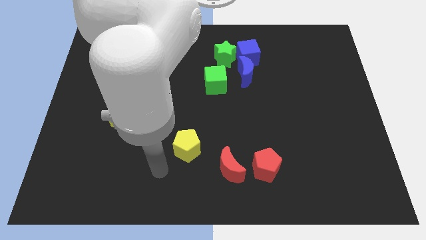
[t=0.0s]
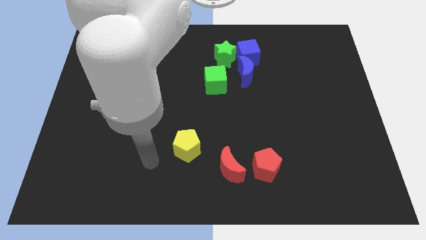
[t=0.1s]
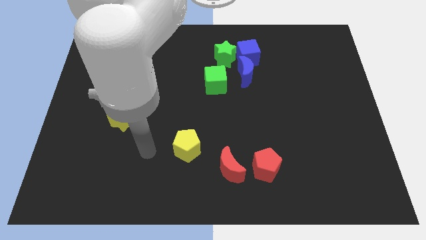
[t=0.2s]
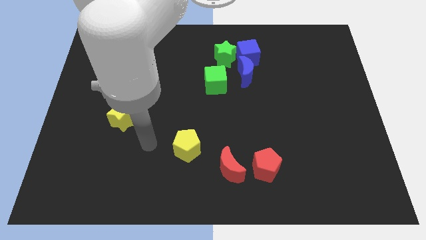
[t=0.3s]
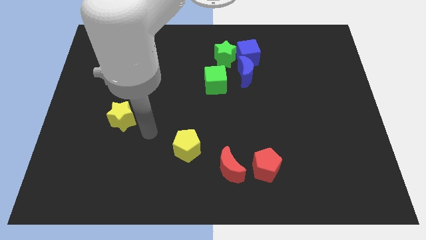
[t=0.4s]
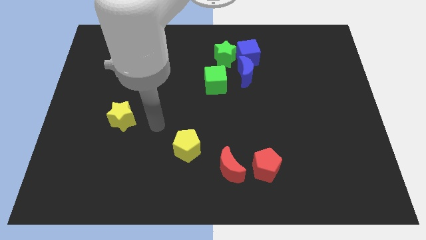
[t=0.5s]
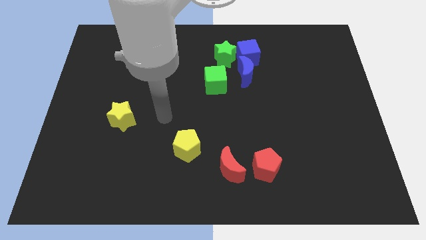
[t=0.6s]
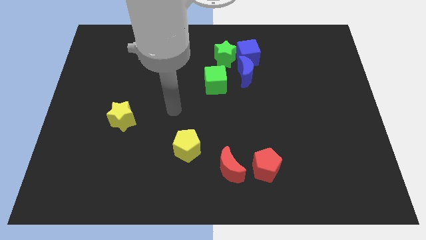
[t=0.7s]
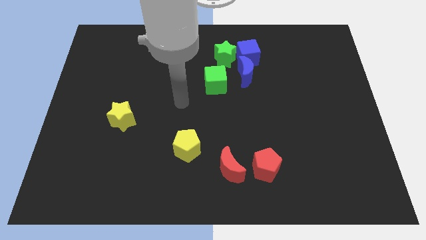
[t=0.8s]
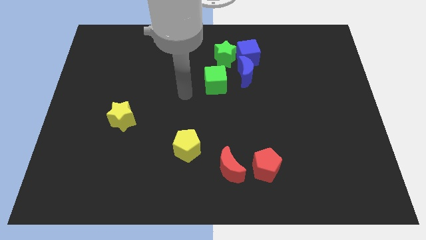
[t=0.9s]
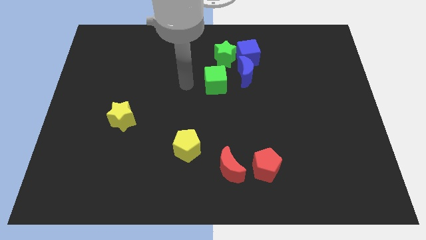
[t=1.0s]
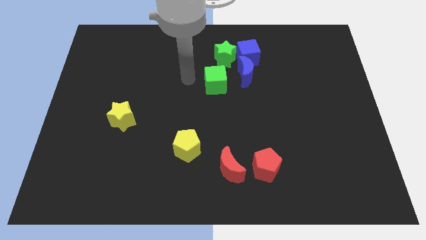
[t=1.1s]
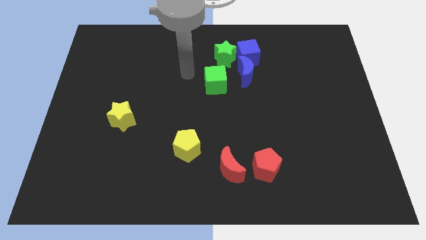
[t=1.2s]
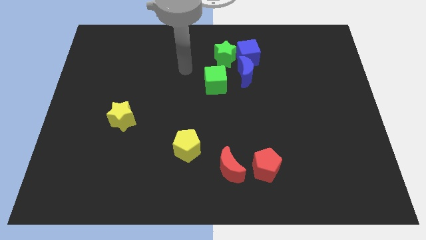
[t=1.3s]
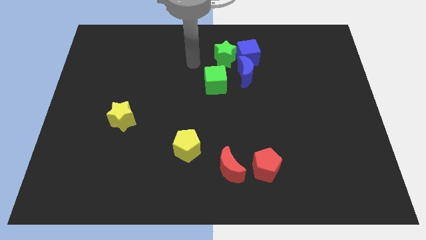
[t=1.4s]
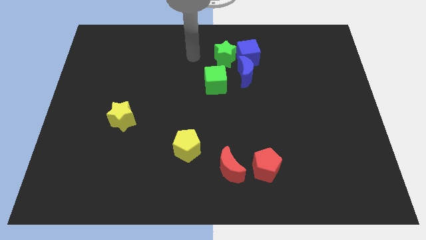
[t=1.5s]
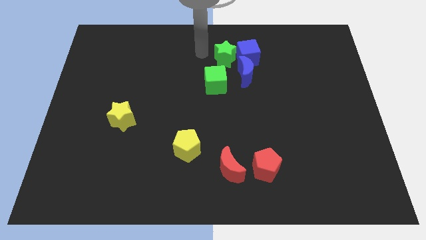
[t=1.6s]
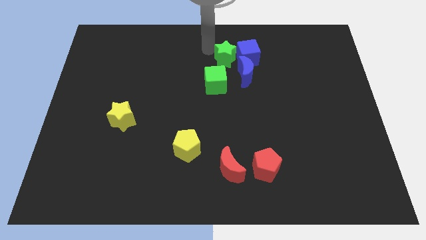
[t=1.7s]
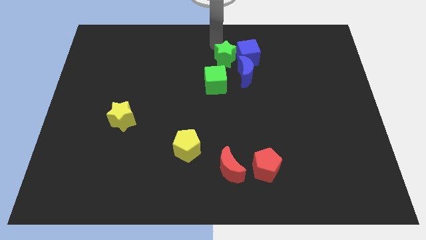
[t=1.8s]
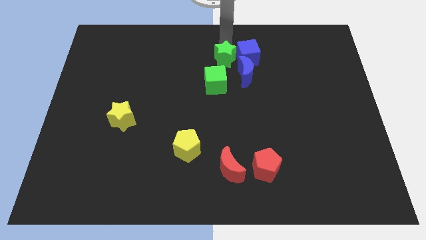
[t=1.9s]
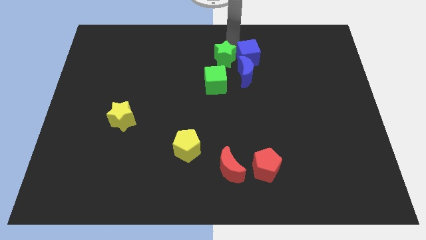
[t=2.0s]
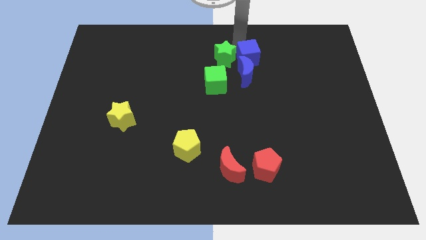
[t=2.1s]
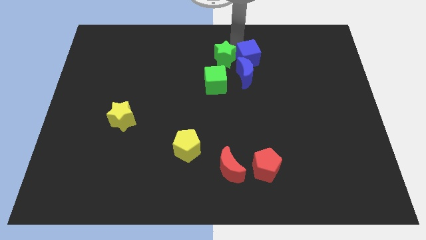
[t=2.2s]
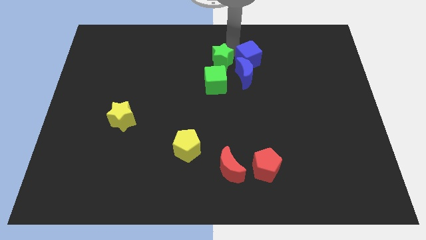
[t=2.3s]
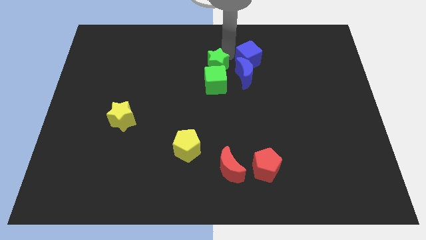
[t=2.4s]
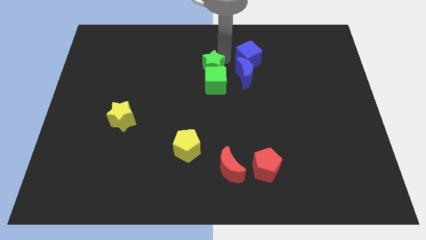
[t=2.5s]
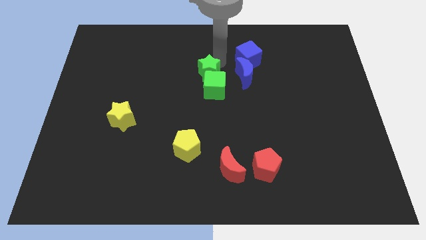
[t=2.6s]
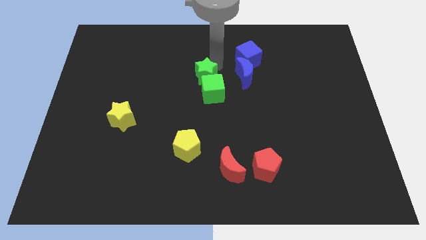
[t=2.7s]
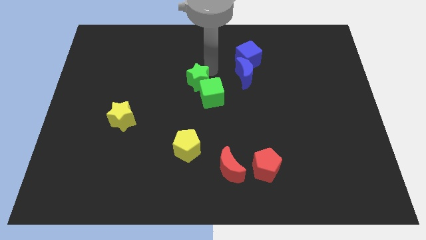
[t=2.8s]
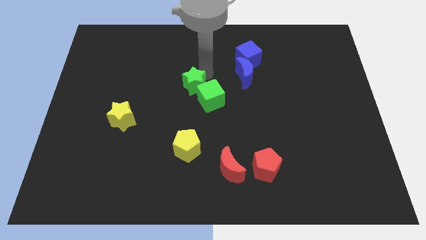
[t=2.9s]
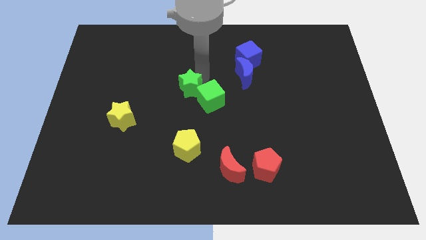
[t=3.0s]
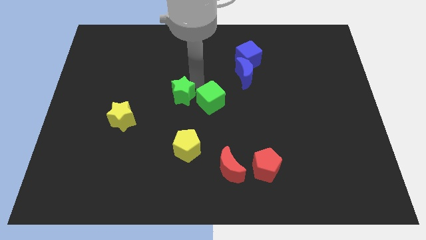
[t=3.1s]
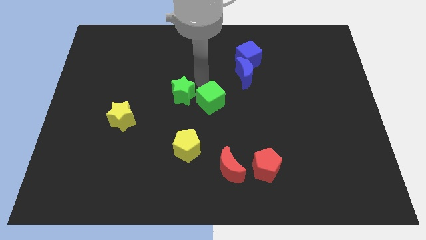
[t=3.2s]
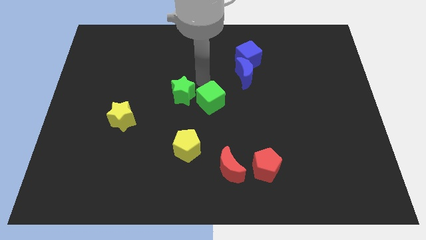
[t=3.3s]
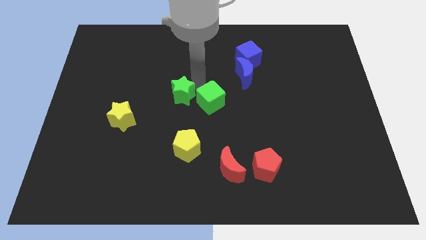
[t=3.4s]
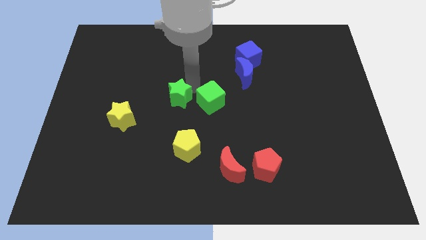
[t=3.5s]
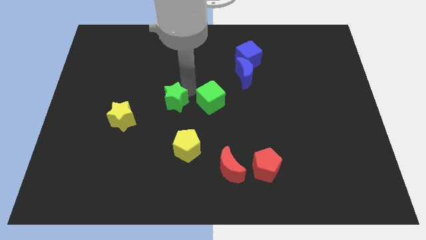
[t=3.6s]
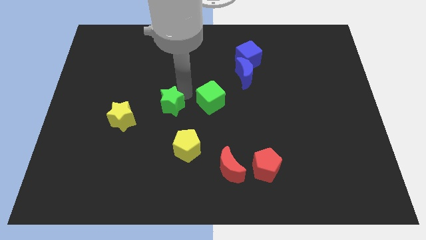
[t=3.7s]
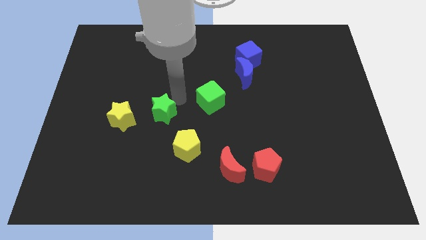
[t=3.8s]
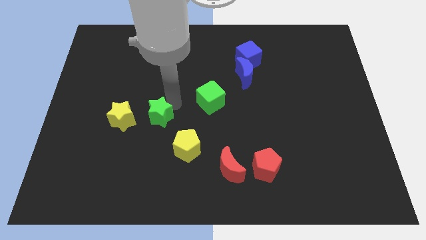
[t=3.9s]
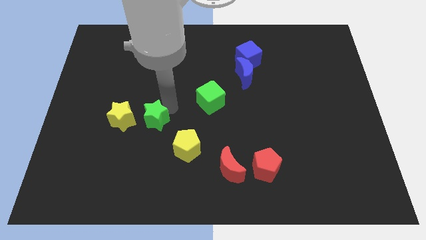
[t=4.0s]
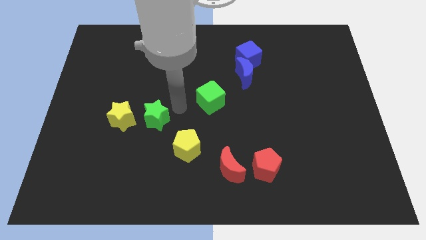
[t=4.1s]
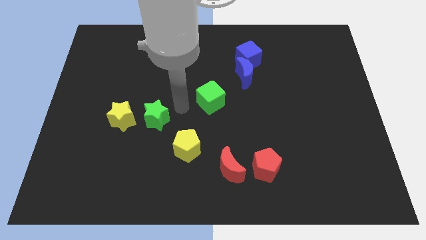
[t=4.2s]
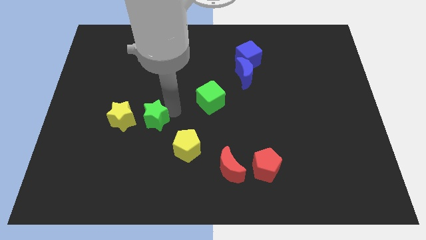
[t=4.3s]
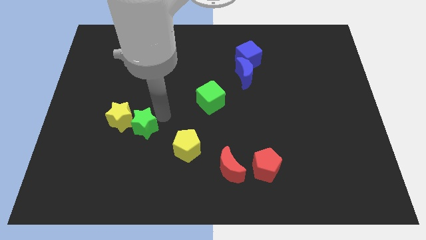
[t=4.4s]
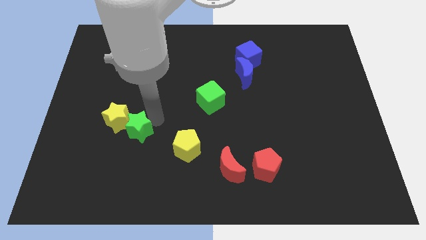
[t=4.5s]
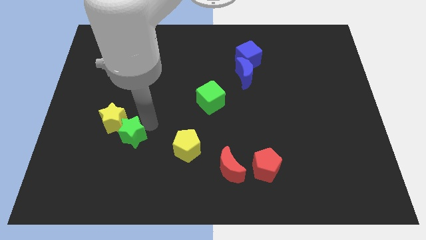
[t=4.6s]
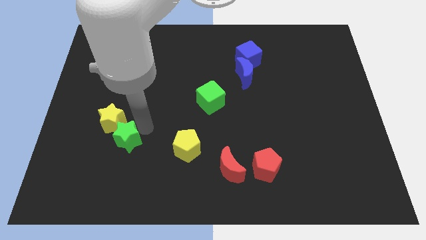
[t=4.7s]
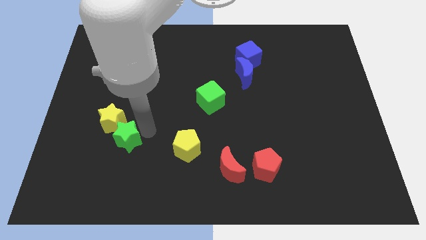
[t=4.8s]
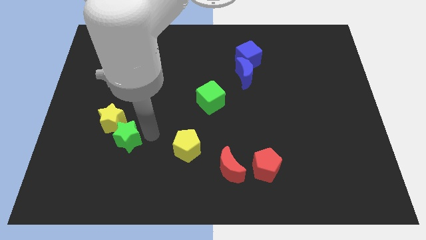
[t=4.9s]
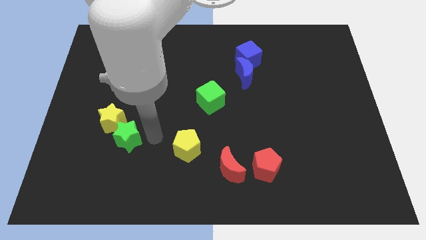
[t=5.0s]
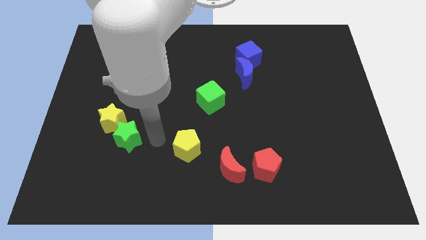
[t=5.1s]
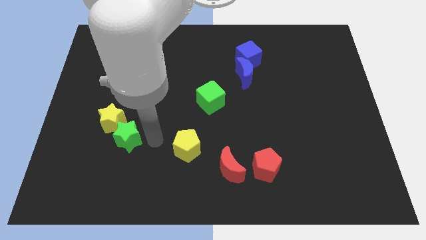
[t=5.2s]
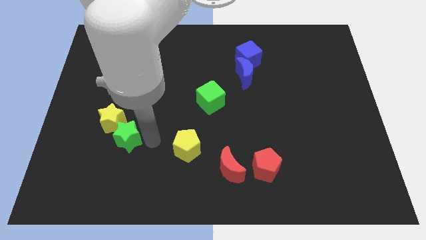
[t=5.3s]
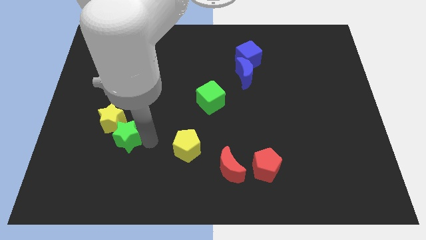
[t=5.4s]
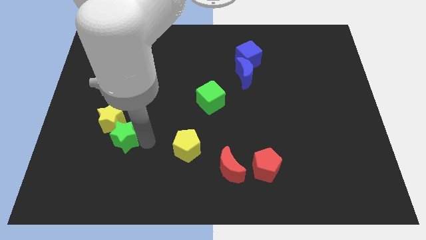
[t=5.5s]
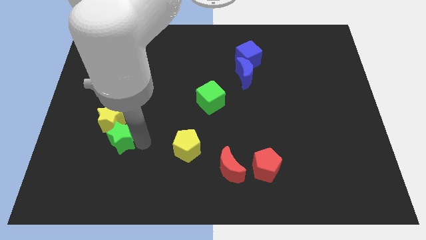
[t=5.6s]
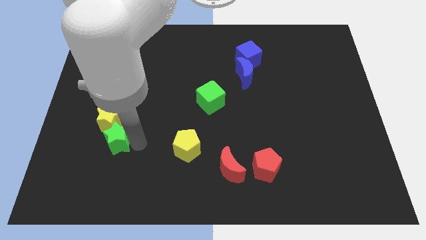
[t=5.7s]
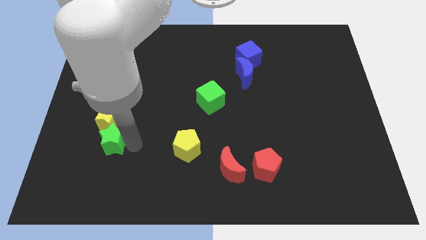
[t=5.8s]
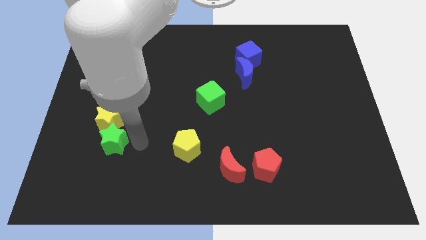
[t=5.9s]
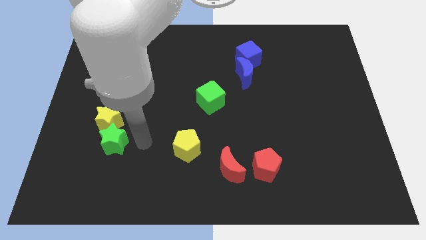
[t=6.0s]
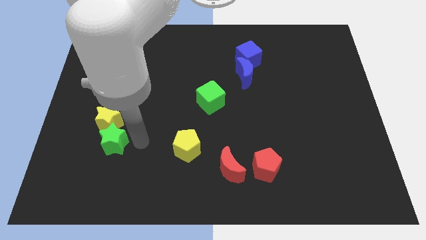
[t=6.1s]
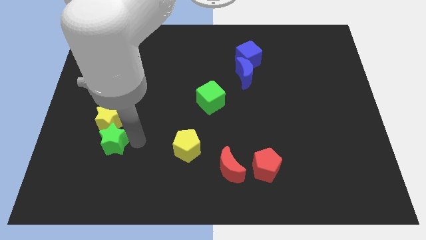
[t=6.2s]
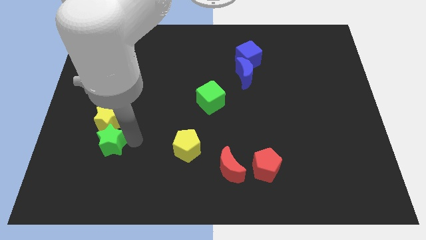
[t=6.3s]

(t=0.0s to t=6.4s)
slide the green star to the bottom left of the yellow star

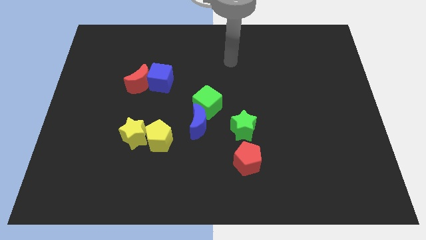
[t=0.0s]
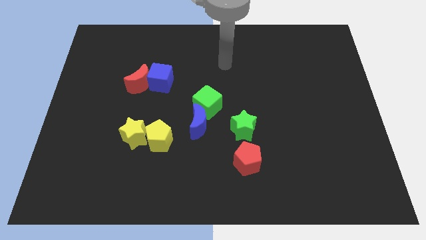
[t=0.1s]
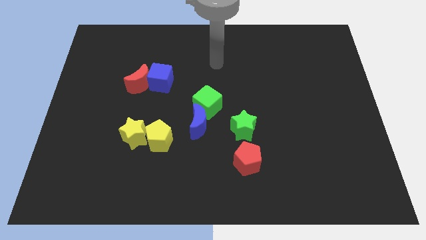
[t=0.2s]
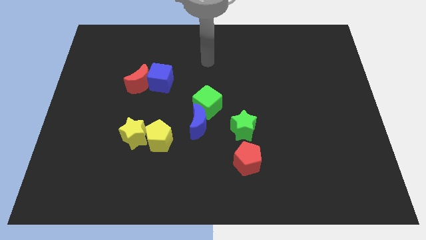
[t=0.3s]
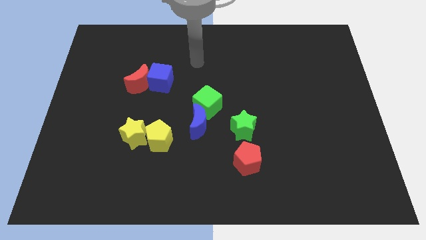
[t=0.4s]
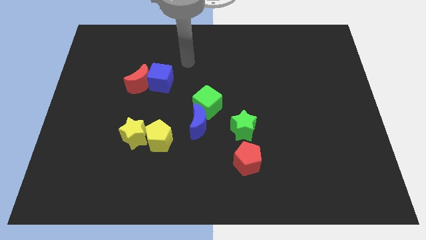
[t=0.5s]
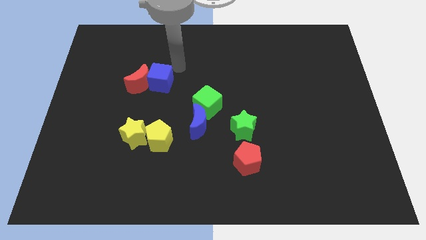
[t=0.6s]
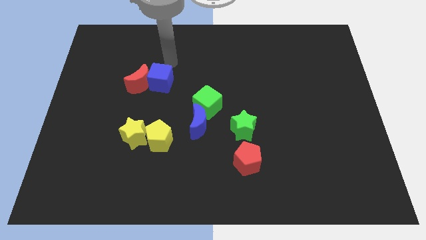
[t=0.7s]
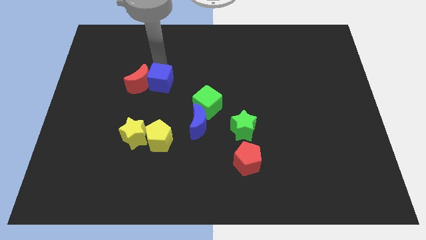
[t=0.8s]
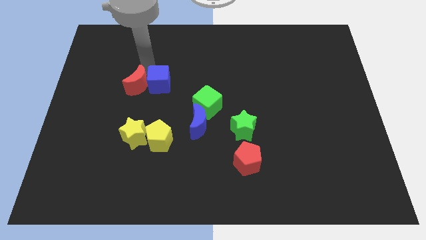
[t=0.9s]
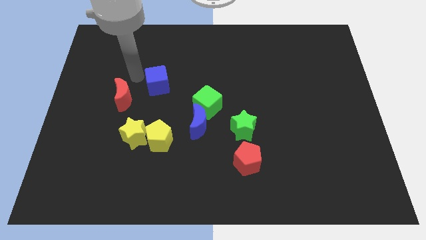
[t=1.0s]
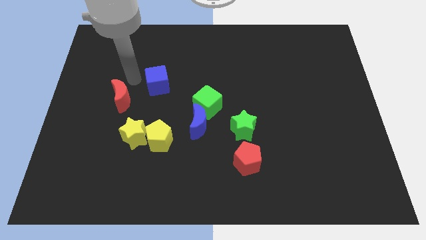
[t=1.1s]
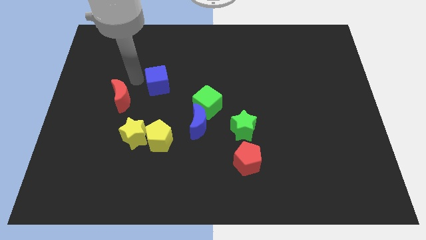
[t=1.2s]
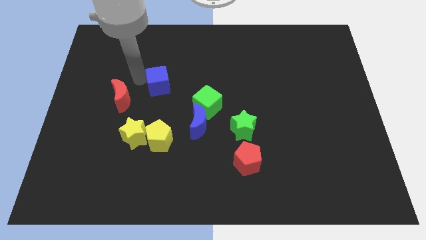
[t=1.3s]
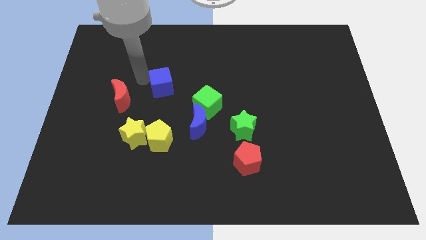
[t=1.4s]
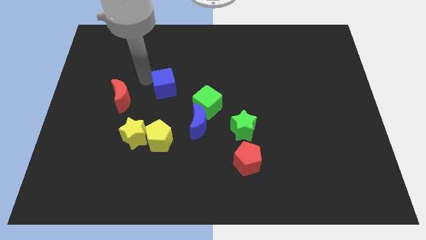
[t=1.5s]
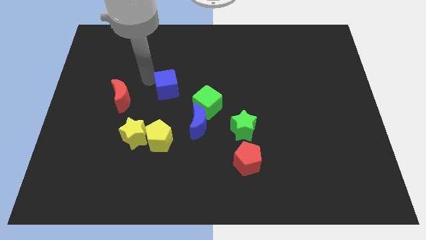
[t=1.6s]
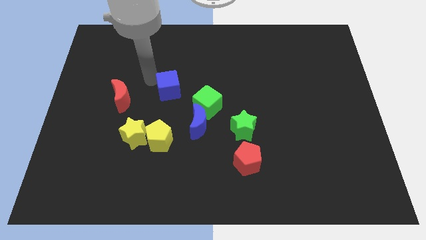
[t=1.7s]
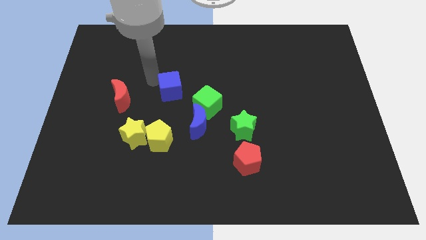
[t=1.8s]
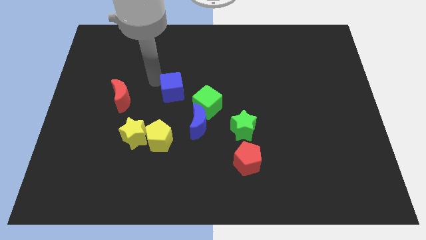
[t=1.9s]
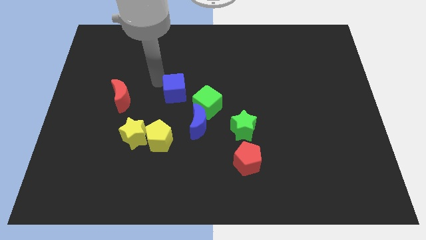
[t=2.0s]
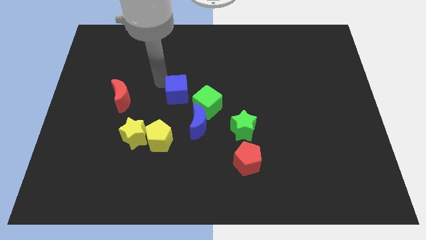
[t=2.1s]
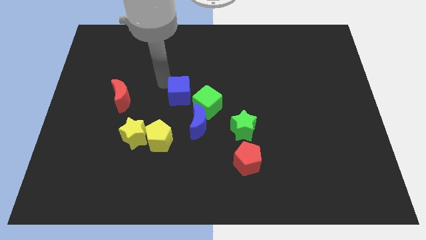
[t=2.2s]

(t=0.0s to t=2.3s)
move the blue cube above the blue moon
